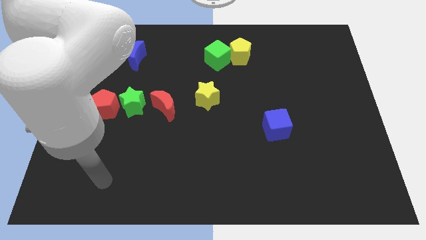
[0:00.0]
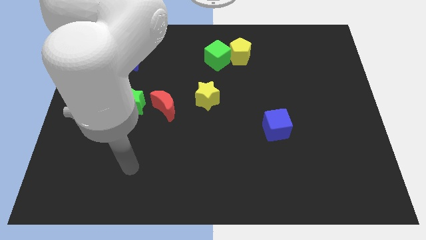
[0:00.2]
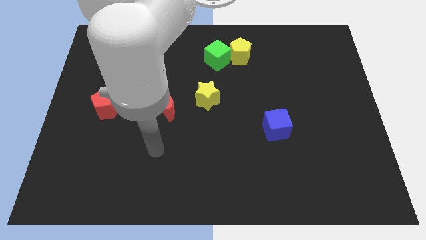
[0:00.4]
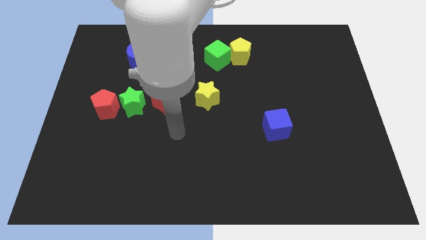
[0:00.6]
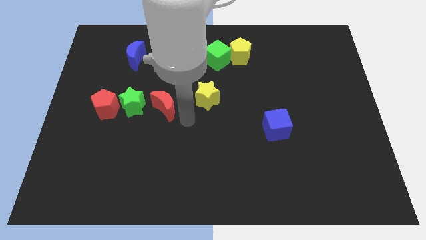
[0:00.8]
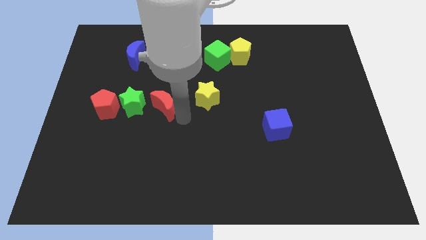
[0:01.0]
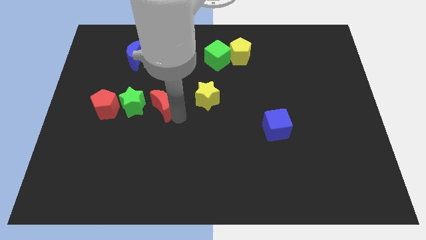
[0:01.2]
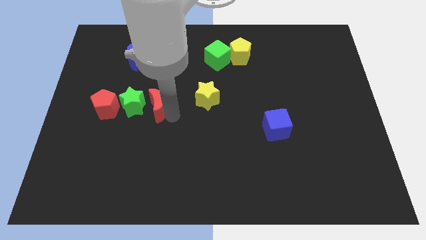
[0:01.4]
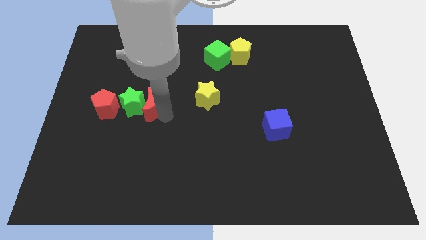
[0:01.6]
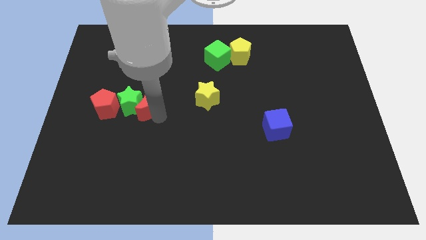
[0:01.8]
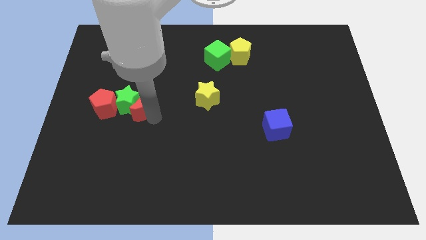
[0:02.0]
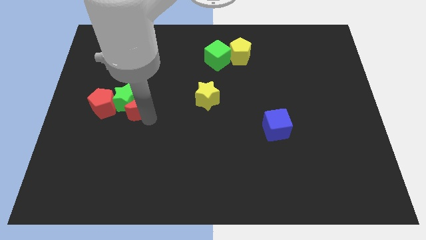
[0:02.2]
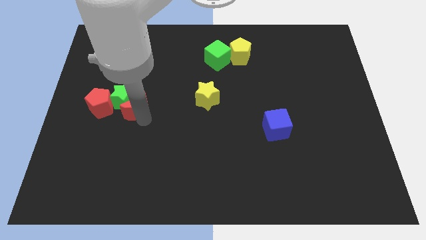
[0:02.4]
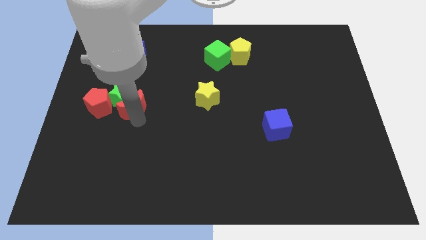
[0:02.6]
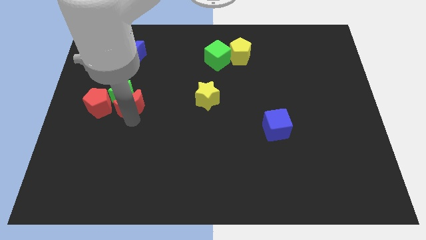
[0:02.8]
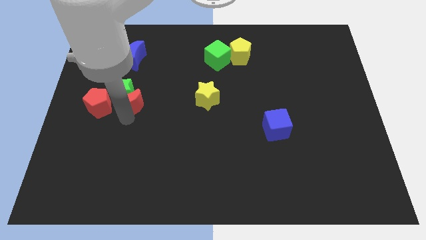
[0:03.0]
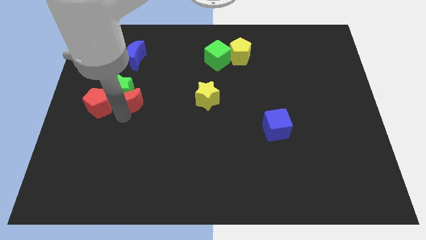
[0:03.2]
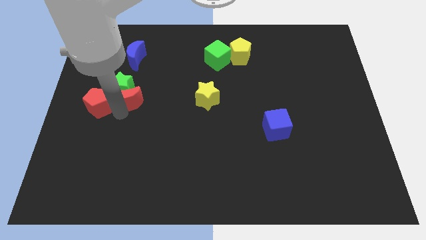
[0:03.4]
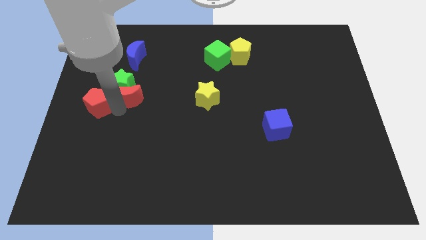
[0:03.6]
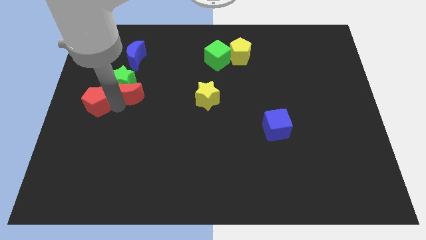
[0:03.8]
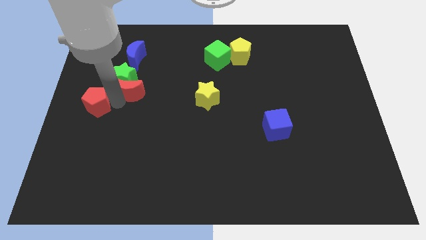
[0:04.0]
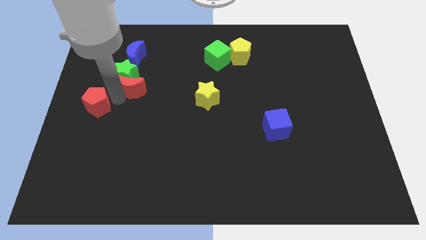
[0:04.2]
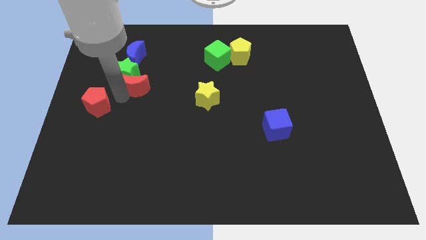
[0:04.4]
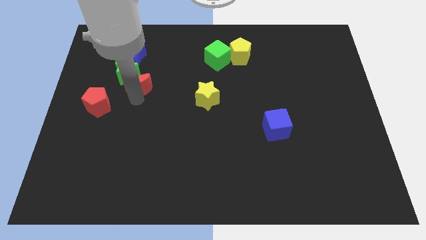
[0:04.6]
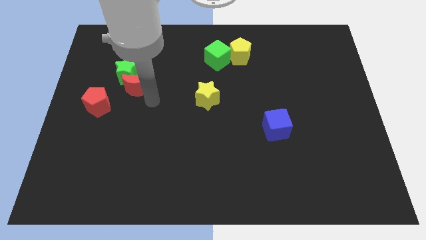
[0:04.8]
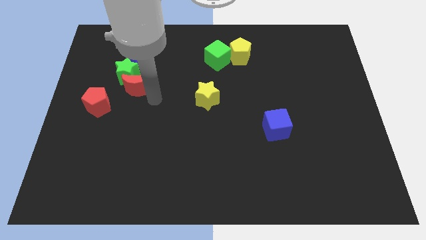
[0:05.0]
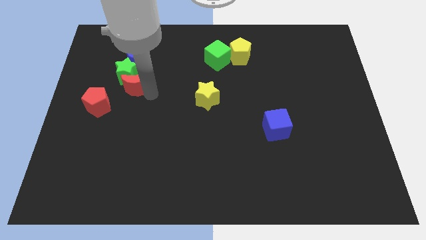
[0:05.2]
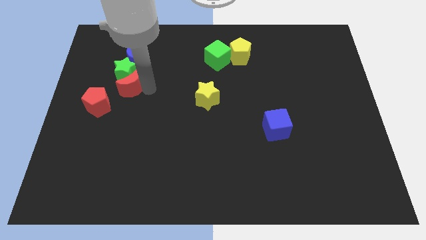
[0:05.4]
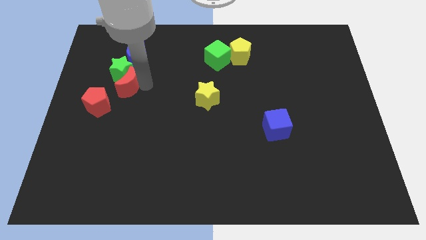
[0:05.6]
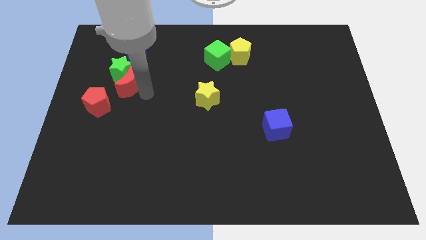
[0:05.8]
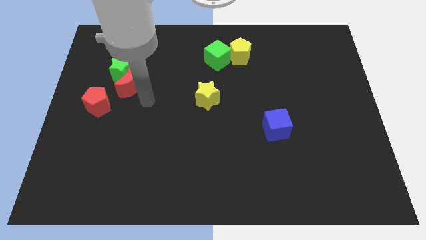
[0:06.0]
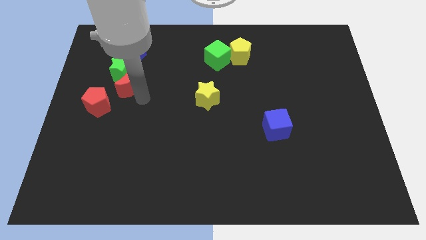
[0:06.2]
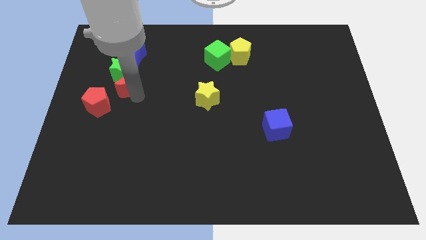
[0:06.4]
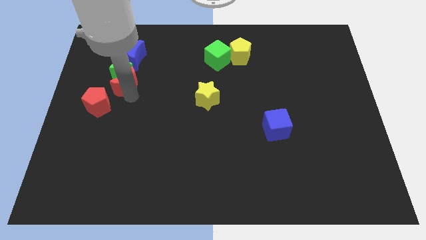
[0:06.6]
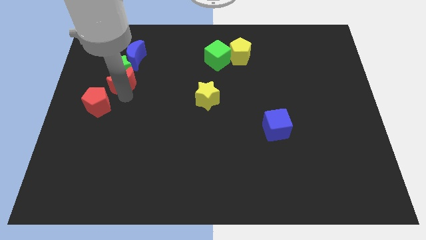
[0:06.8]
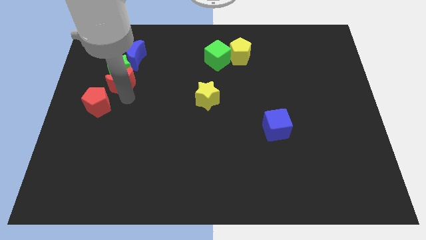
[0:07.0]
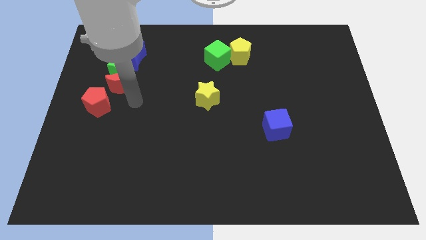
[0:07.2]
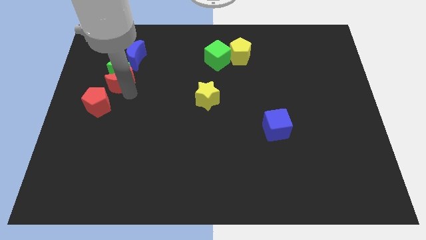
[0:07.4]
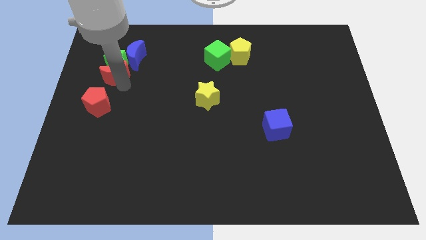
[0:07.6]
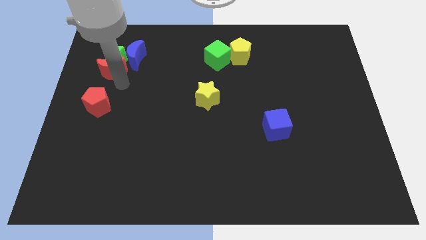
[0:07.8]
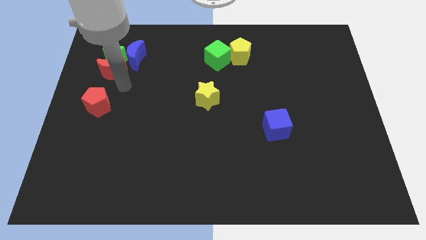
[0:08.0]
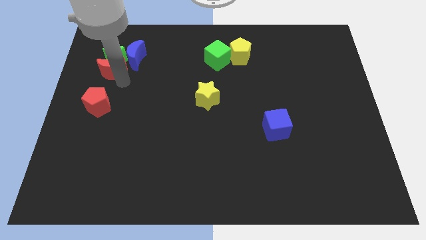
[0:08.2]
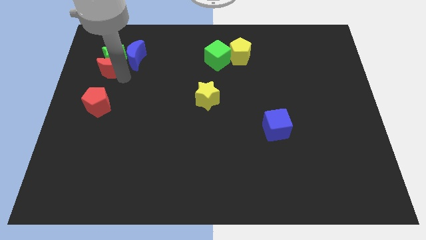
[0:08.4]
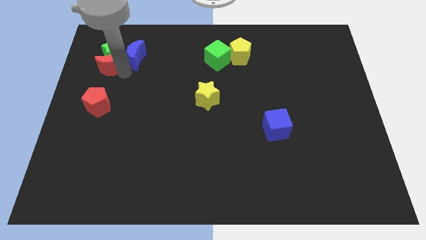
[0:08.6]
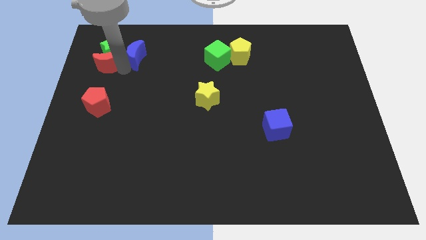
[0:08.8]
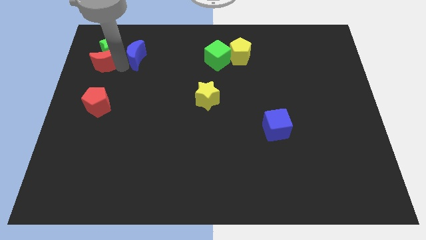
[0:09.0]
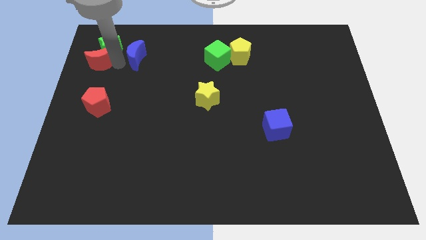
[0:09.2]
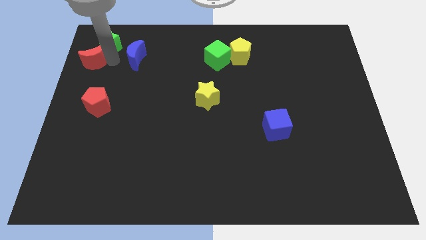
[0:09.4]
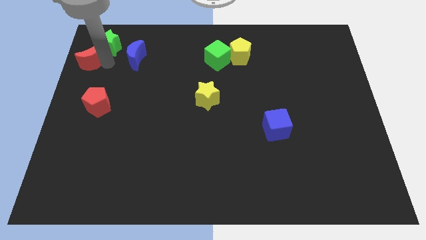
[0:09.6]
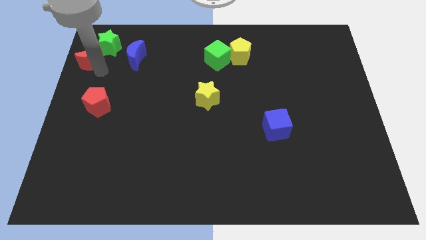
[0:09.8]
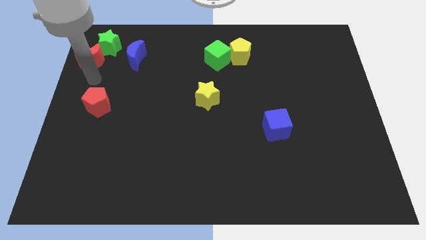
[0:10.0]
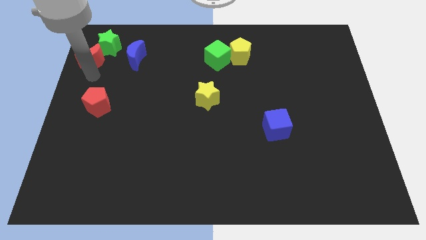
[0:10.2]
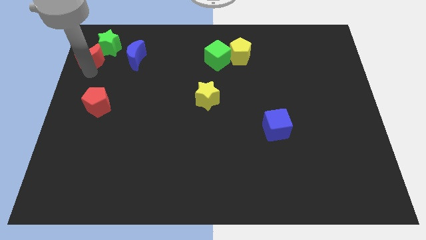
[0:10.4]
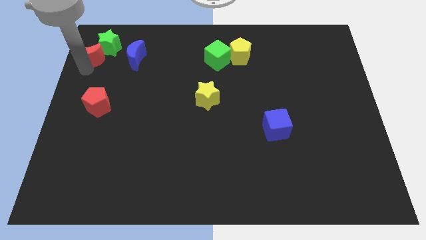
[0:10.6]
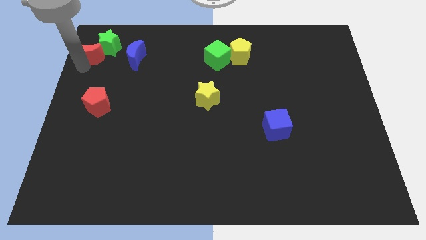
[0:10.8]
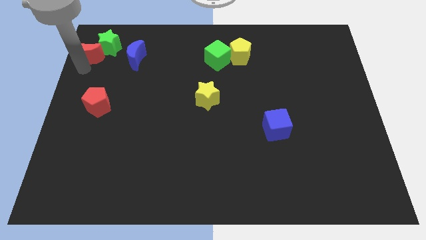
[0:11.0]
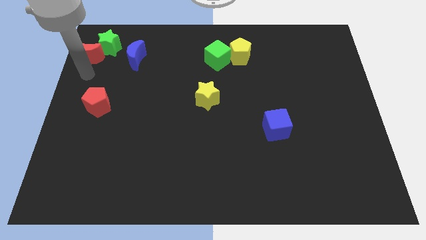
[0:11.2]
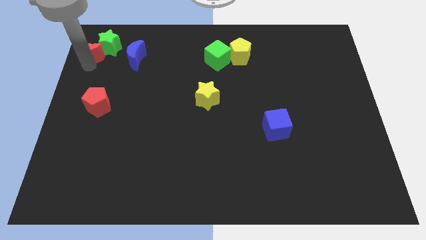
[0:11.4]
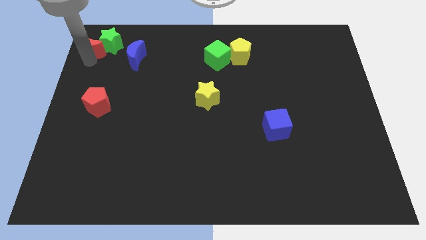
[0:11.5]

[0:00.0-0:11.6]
put the red moon to the upper left corner
